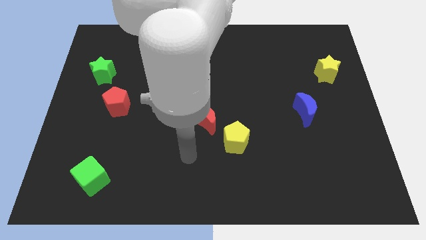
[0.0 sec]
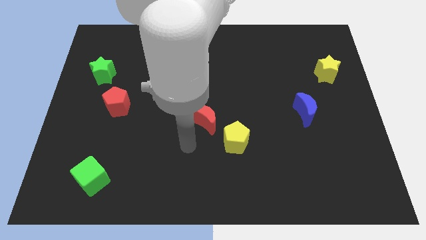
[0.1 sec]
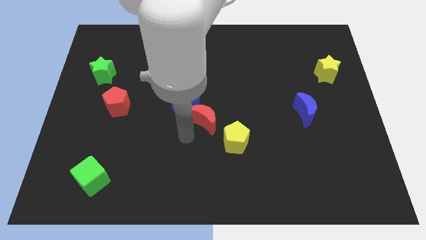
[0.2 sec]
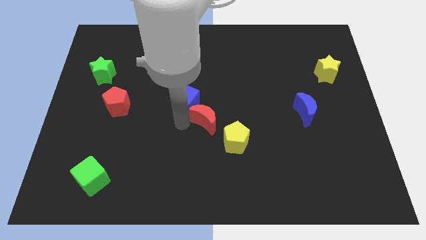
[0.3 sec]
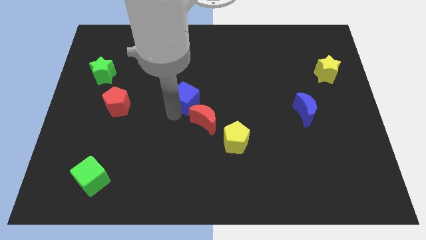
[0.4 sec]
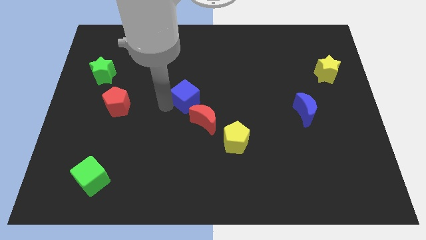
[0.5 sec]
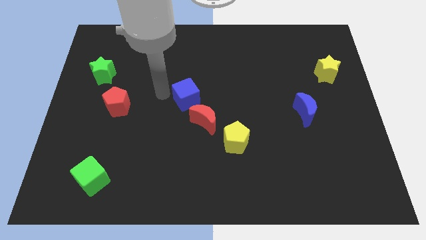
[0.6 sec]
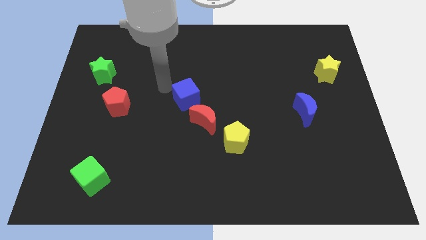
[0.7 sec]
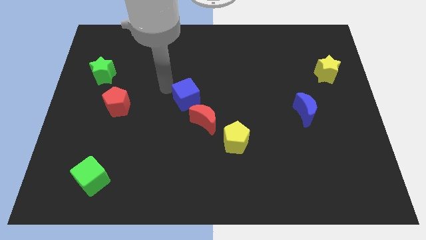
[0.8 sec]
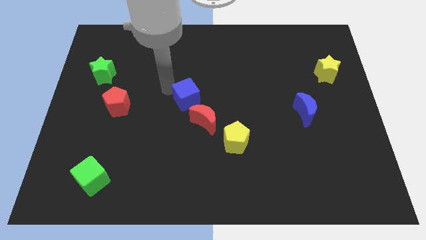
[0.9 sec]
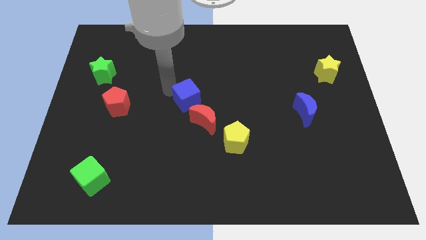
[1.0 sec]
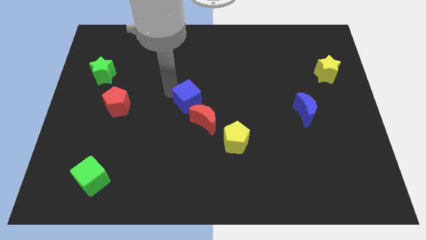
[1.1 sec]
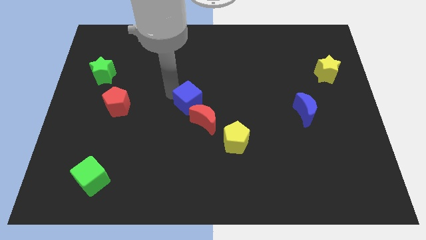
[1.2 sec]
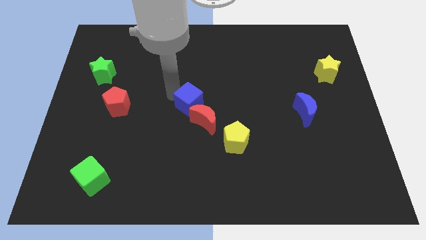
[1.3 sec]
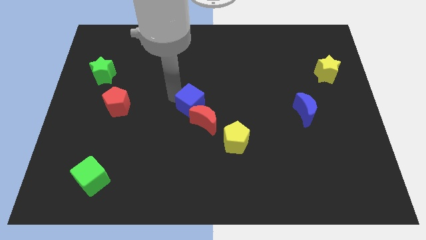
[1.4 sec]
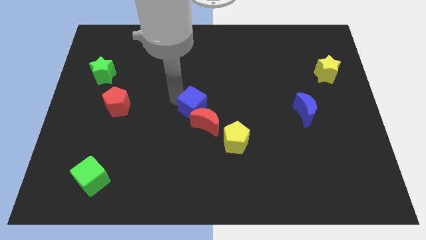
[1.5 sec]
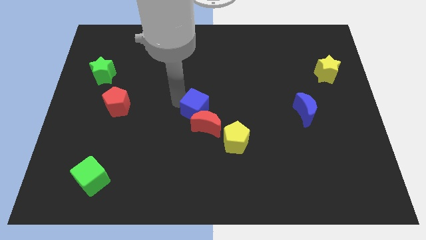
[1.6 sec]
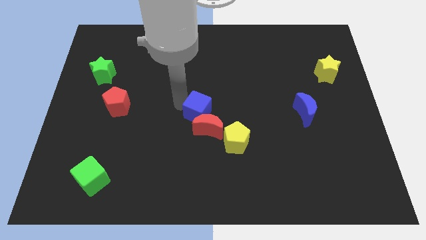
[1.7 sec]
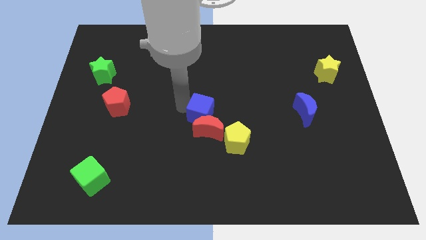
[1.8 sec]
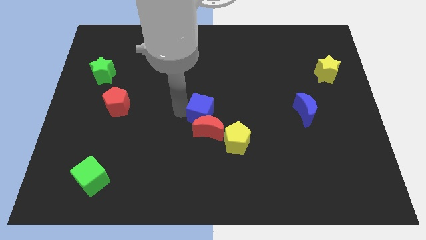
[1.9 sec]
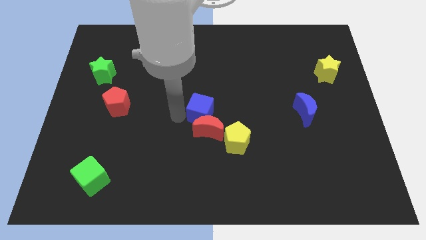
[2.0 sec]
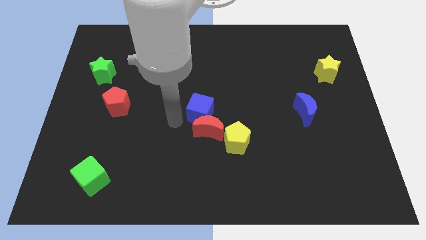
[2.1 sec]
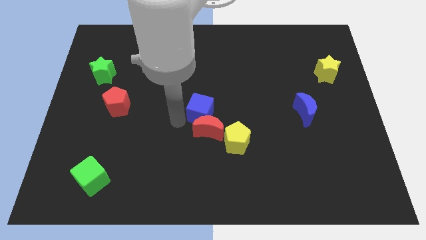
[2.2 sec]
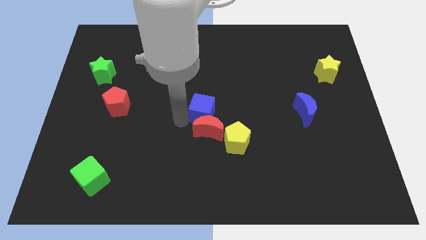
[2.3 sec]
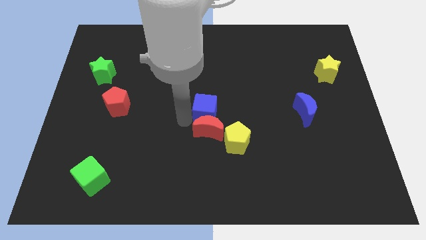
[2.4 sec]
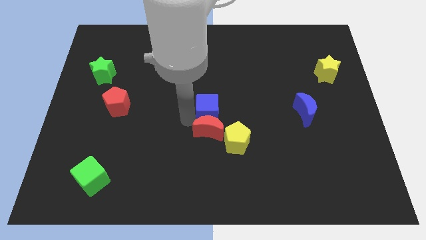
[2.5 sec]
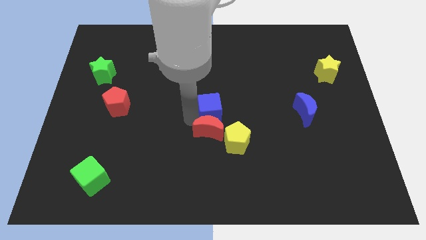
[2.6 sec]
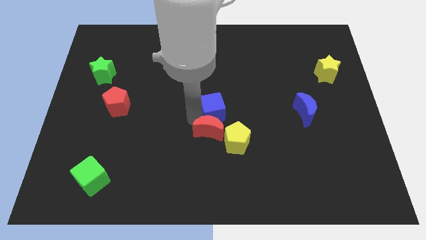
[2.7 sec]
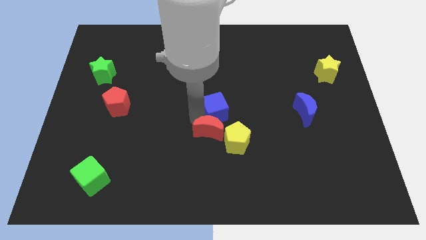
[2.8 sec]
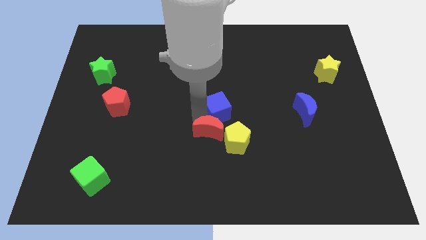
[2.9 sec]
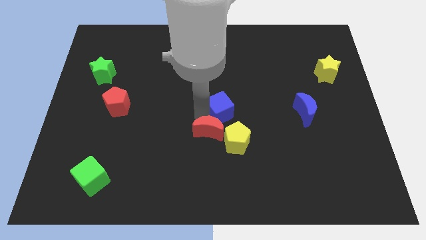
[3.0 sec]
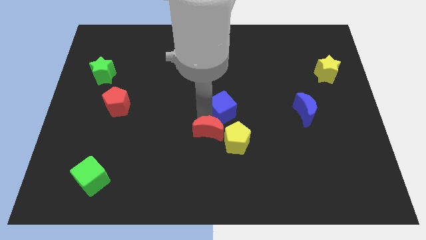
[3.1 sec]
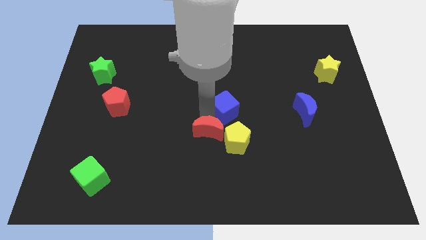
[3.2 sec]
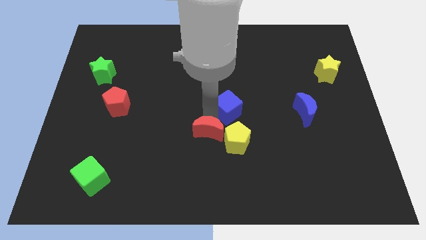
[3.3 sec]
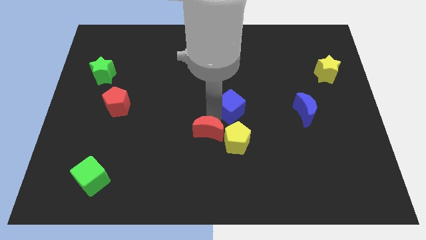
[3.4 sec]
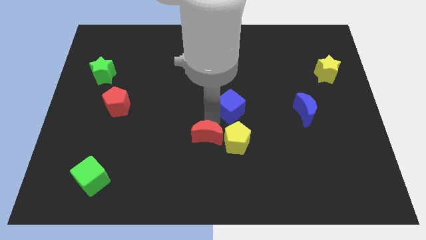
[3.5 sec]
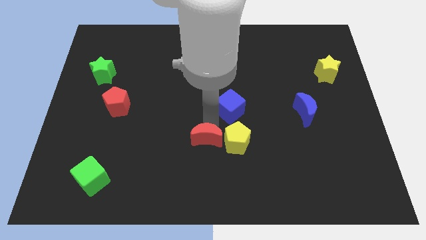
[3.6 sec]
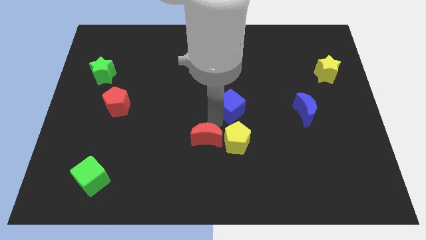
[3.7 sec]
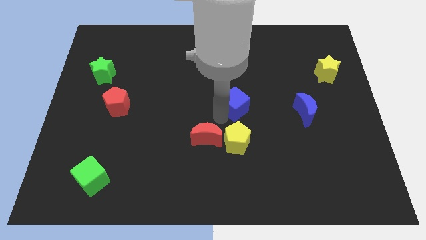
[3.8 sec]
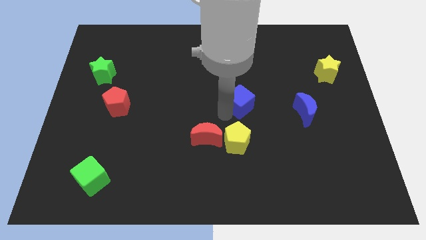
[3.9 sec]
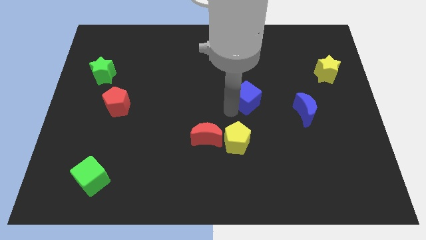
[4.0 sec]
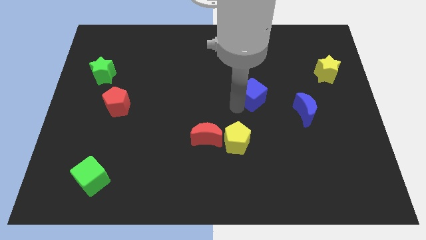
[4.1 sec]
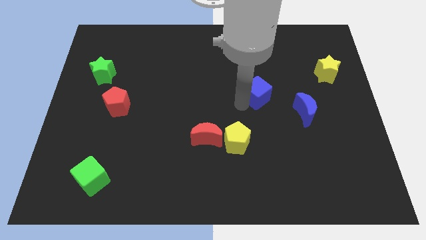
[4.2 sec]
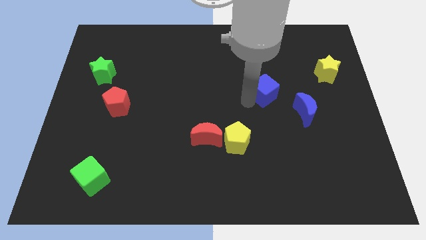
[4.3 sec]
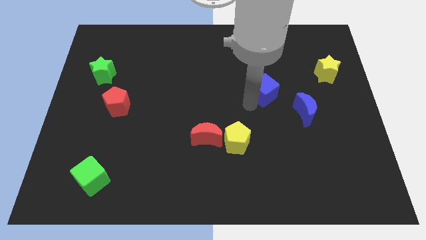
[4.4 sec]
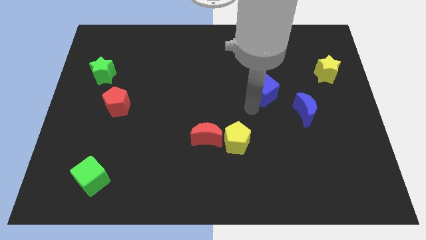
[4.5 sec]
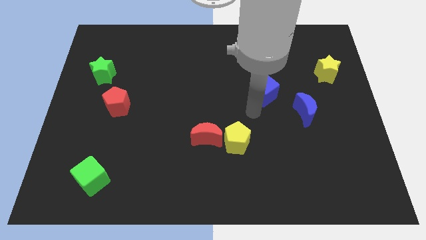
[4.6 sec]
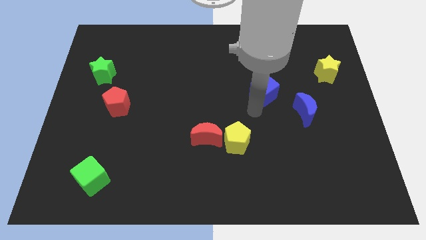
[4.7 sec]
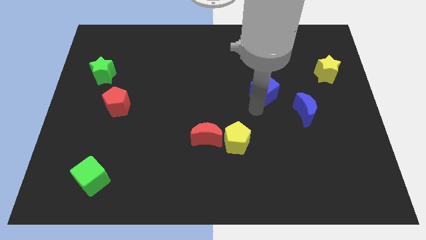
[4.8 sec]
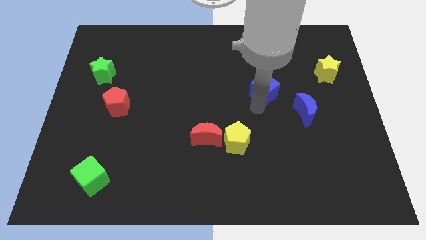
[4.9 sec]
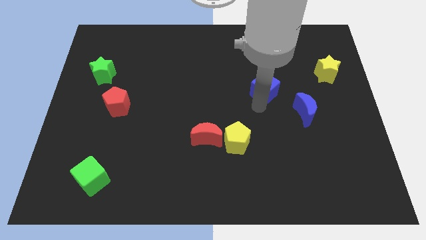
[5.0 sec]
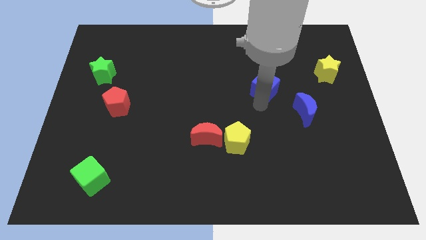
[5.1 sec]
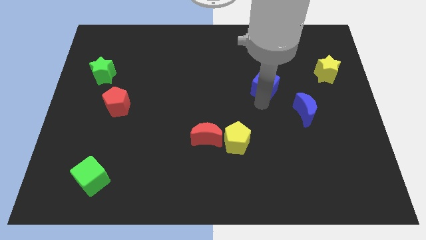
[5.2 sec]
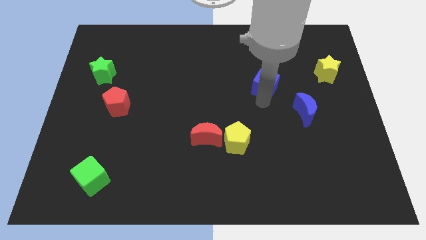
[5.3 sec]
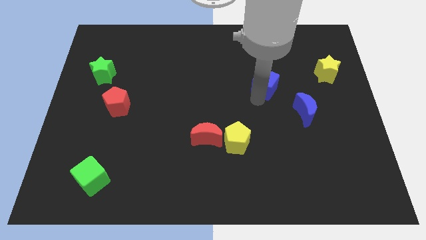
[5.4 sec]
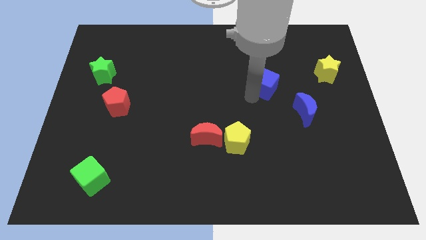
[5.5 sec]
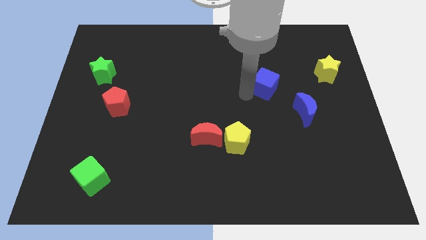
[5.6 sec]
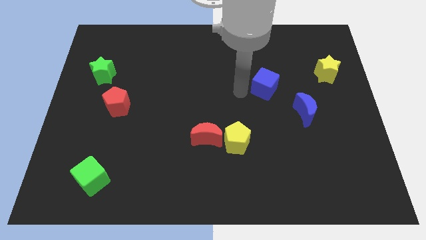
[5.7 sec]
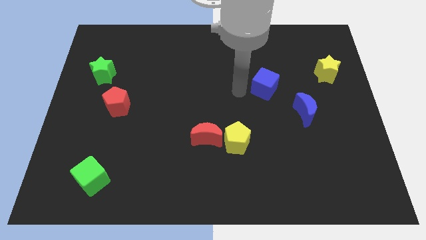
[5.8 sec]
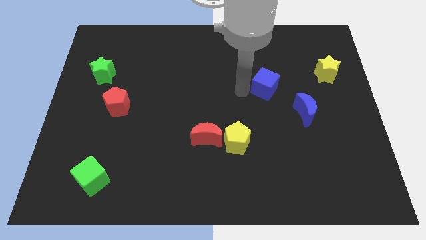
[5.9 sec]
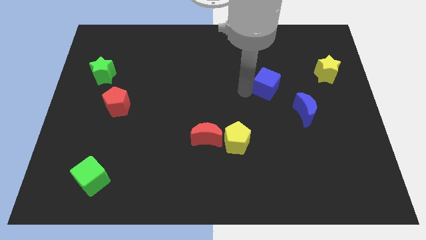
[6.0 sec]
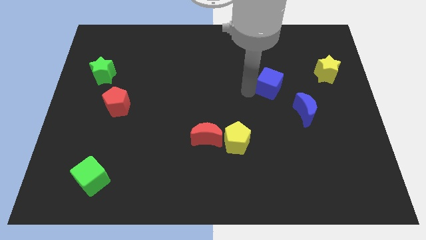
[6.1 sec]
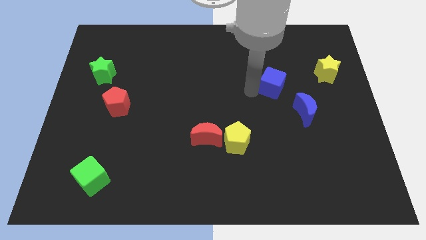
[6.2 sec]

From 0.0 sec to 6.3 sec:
slide the blue cube right

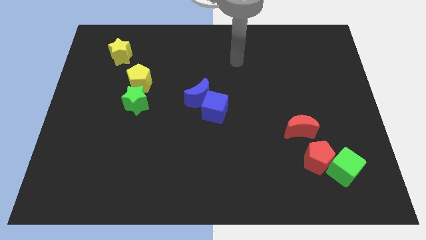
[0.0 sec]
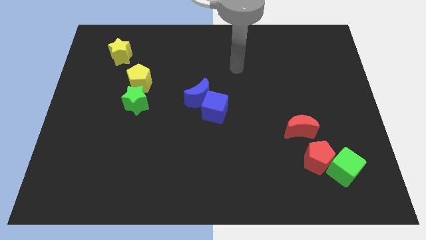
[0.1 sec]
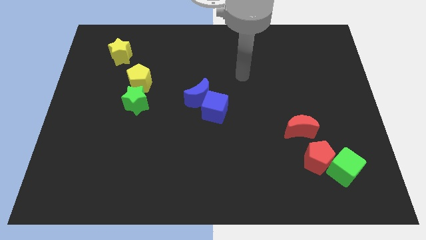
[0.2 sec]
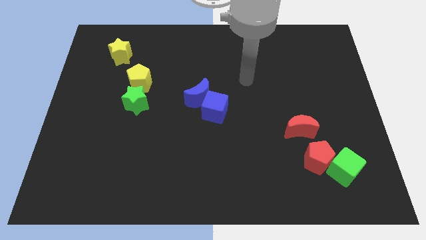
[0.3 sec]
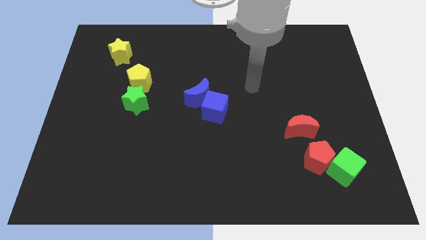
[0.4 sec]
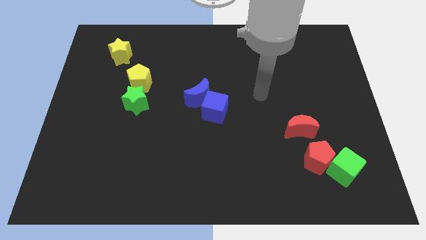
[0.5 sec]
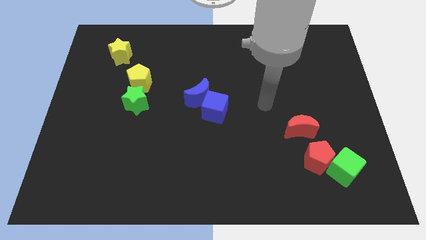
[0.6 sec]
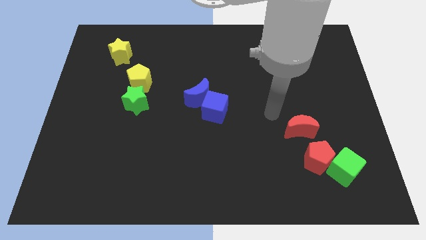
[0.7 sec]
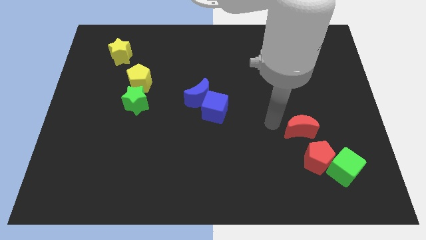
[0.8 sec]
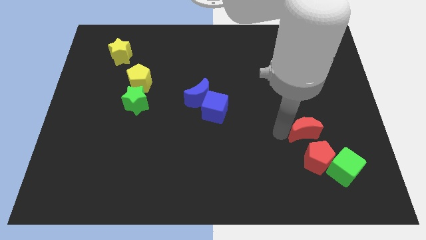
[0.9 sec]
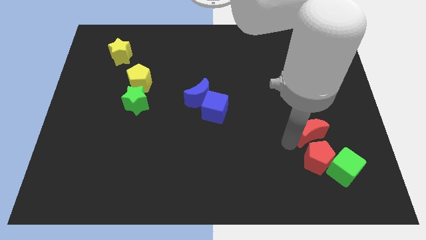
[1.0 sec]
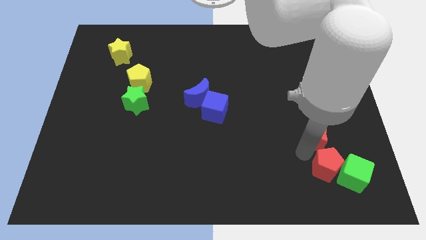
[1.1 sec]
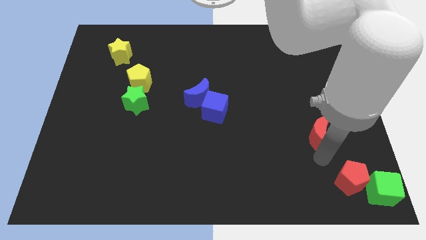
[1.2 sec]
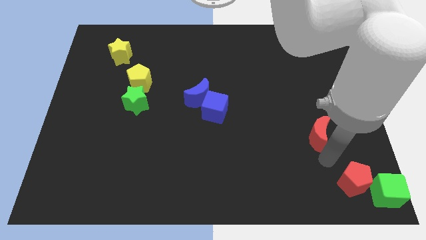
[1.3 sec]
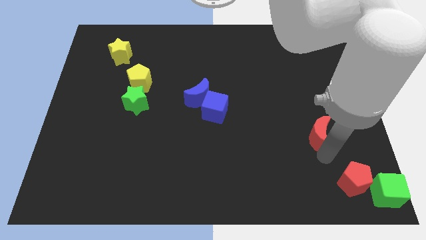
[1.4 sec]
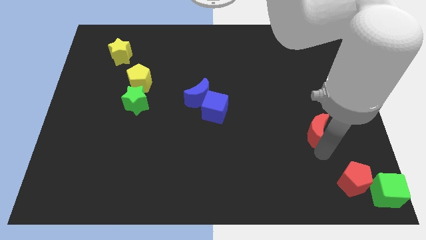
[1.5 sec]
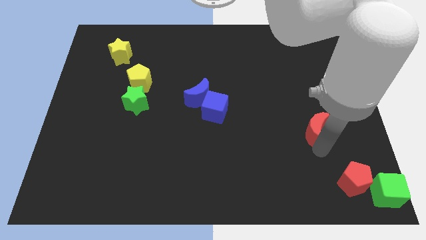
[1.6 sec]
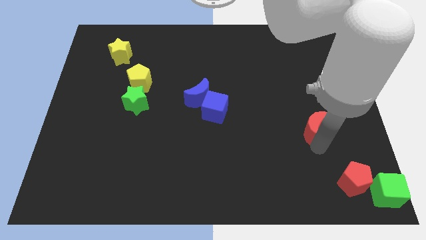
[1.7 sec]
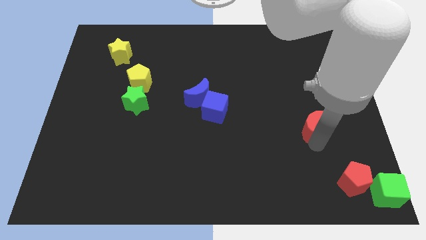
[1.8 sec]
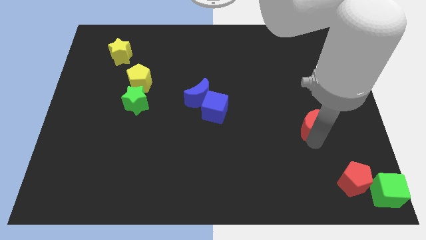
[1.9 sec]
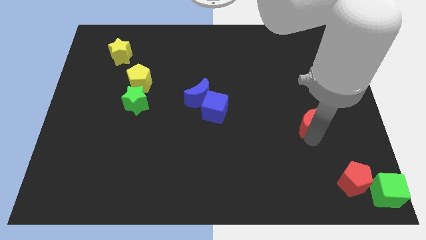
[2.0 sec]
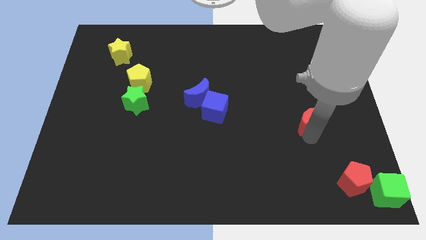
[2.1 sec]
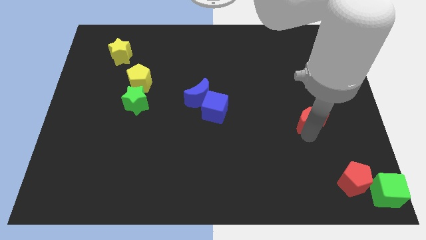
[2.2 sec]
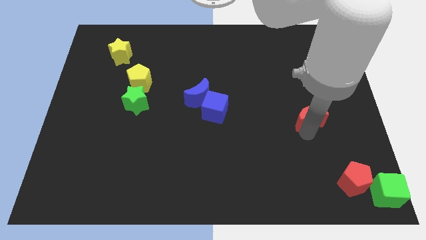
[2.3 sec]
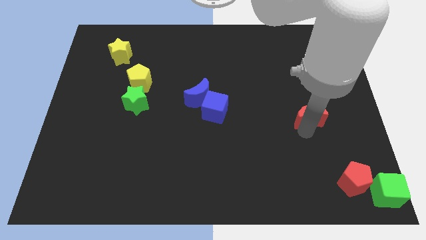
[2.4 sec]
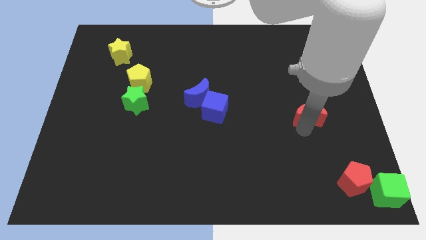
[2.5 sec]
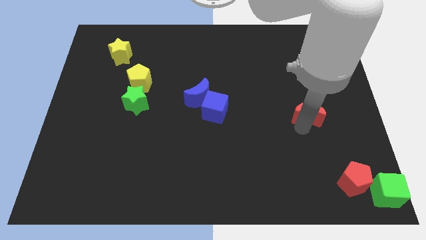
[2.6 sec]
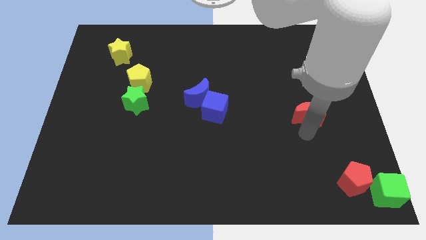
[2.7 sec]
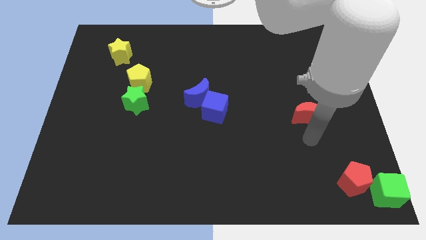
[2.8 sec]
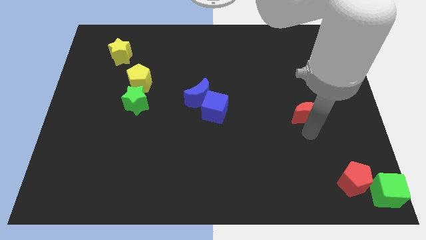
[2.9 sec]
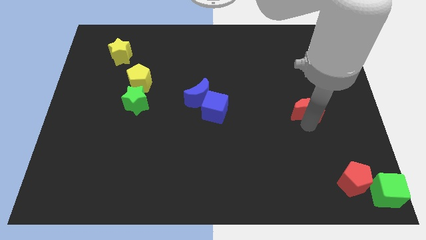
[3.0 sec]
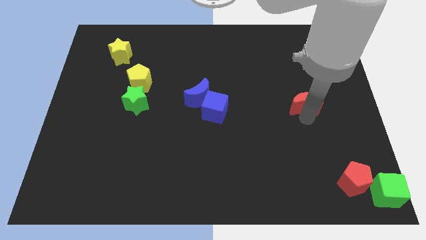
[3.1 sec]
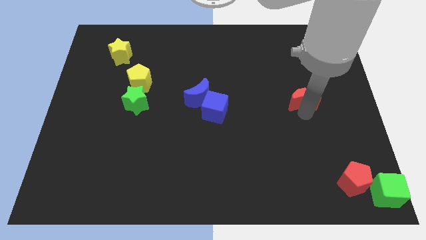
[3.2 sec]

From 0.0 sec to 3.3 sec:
move the red moon slightly up
